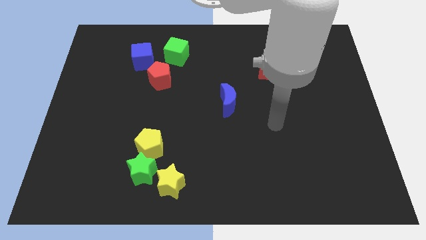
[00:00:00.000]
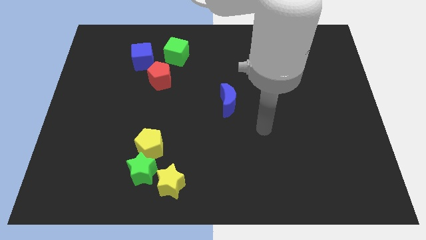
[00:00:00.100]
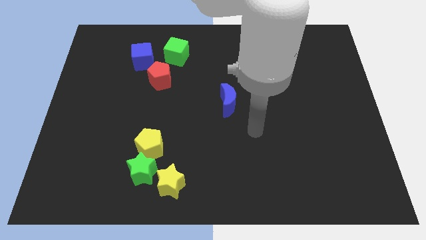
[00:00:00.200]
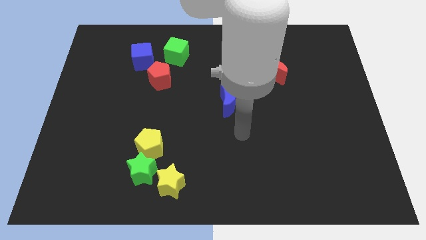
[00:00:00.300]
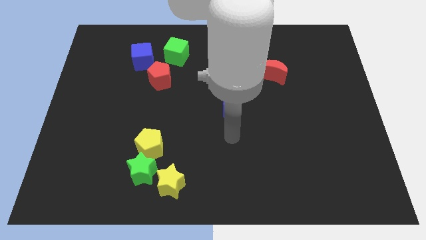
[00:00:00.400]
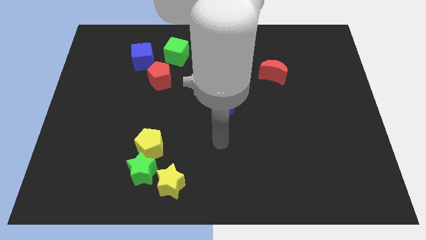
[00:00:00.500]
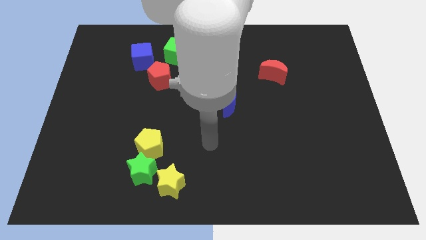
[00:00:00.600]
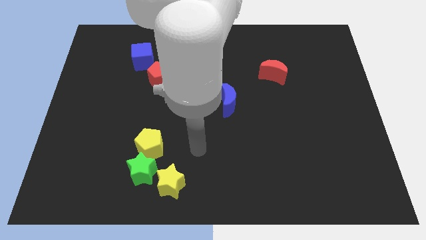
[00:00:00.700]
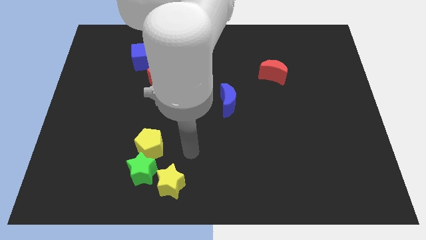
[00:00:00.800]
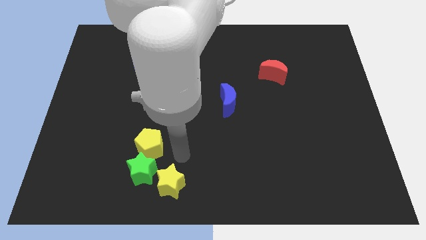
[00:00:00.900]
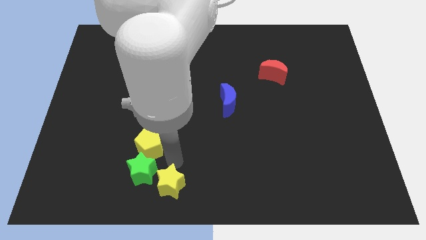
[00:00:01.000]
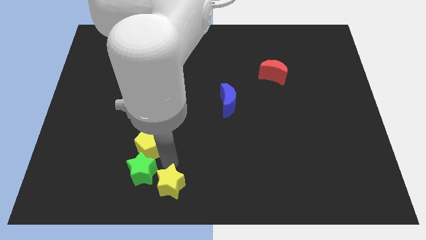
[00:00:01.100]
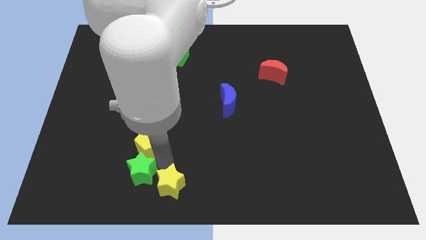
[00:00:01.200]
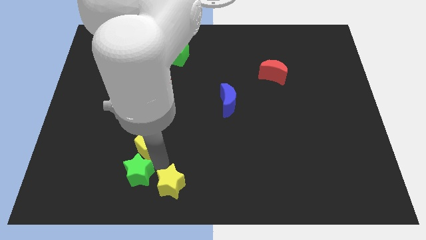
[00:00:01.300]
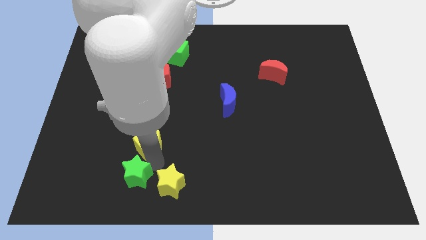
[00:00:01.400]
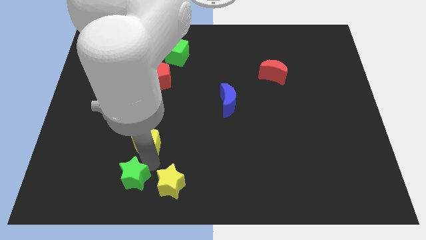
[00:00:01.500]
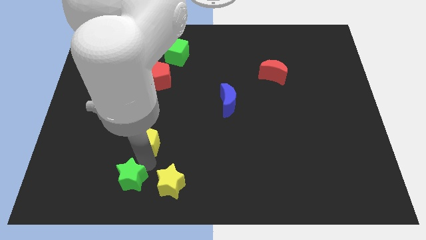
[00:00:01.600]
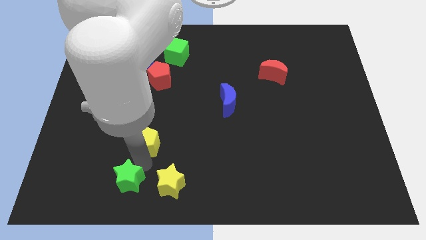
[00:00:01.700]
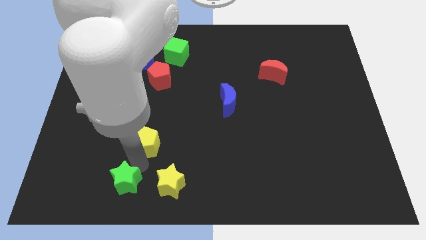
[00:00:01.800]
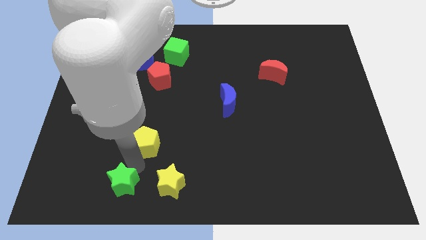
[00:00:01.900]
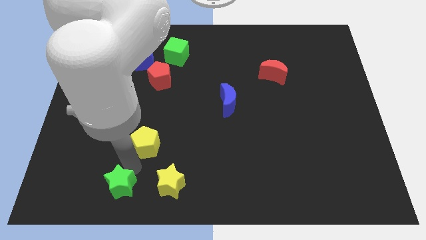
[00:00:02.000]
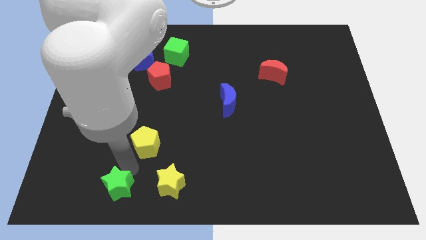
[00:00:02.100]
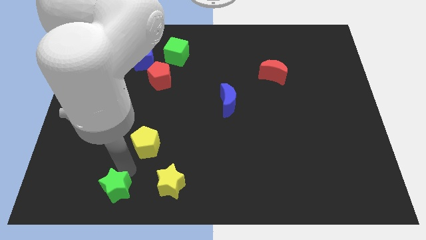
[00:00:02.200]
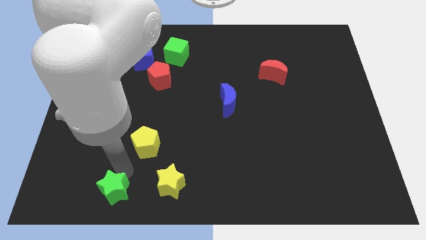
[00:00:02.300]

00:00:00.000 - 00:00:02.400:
separate the green star from the yellow pentagon and yellow star

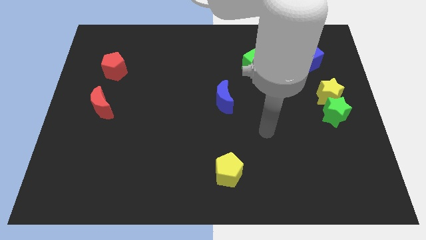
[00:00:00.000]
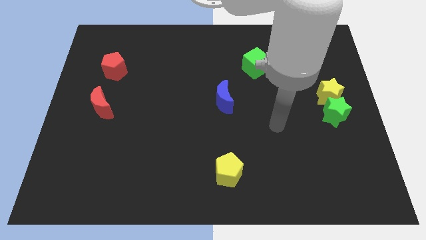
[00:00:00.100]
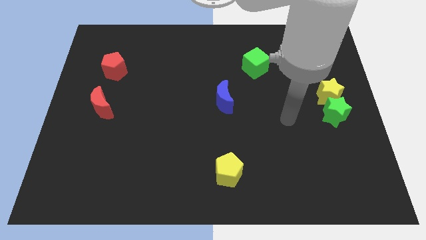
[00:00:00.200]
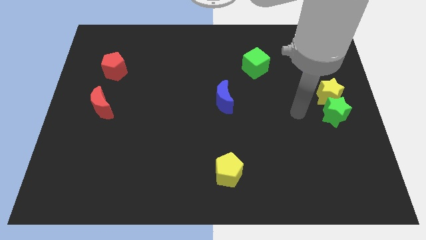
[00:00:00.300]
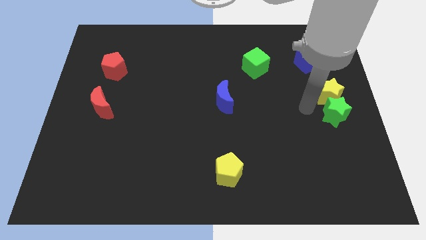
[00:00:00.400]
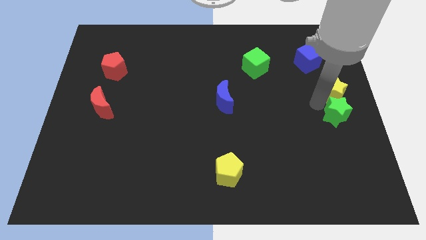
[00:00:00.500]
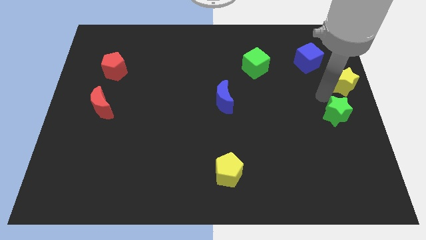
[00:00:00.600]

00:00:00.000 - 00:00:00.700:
move the green star away from the yellow star

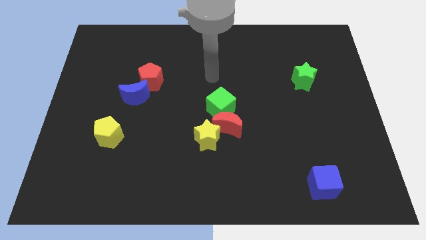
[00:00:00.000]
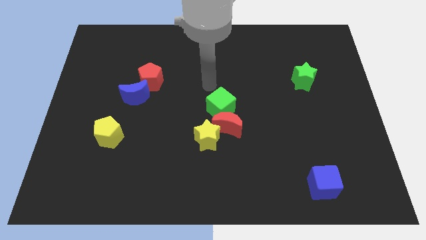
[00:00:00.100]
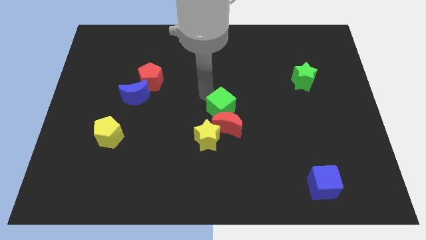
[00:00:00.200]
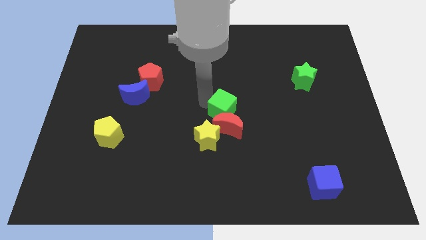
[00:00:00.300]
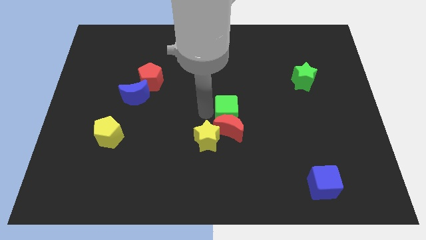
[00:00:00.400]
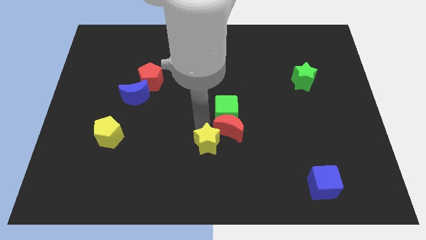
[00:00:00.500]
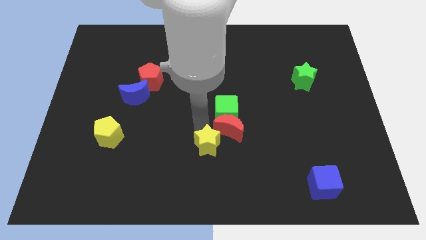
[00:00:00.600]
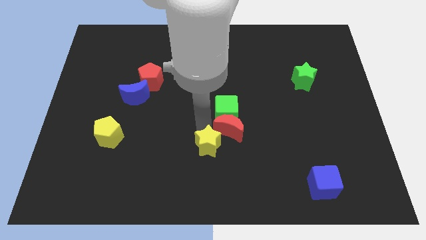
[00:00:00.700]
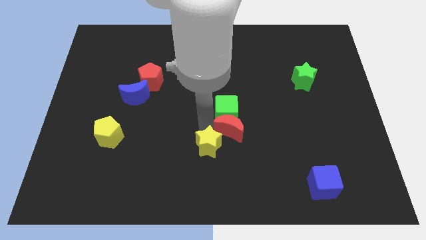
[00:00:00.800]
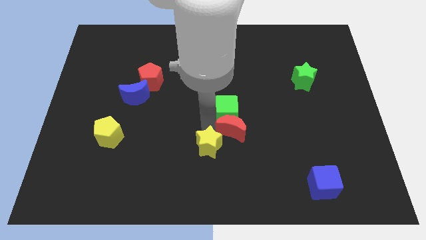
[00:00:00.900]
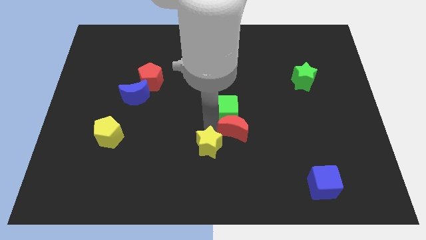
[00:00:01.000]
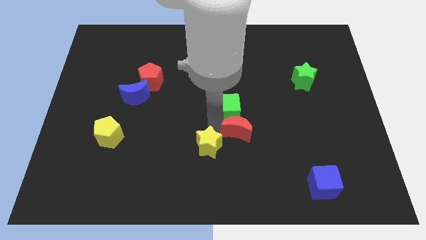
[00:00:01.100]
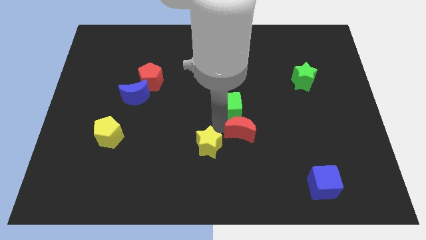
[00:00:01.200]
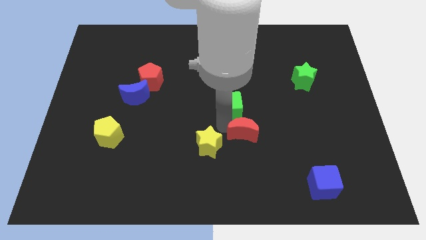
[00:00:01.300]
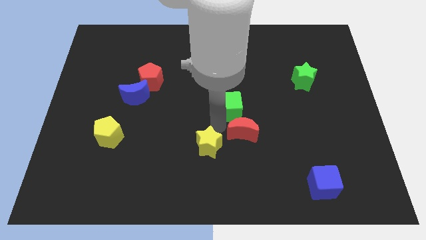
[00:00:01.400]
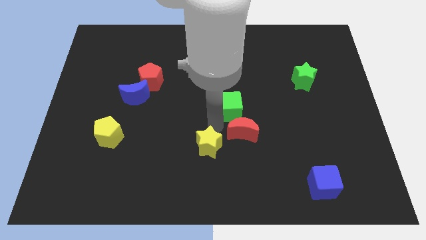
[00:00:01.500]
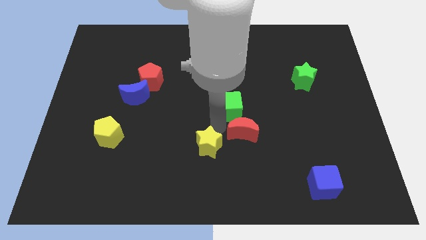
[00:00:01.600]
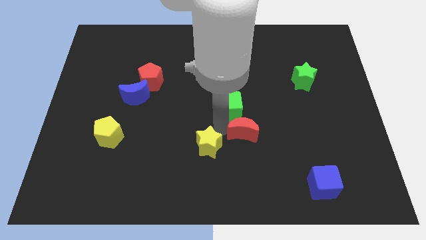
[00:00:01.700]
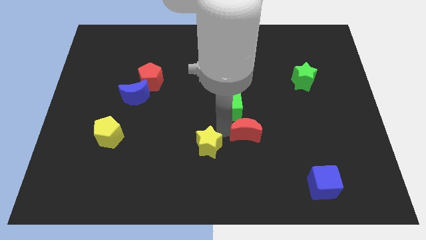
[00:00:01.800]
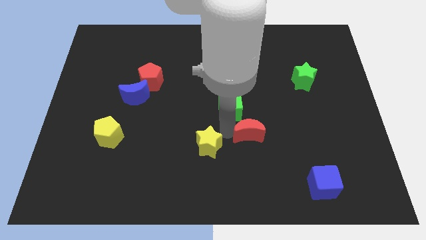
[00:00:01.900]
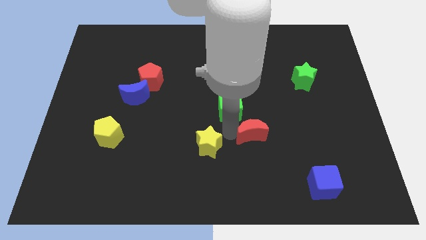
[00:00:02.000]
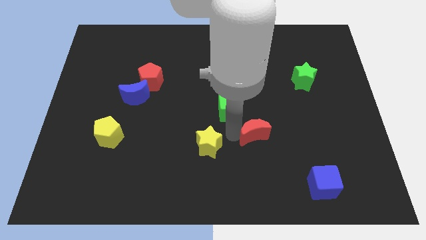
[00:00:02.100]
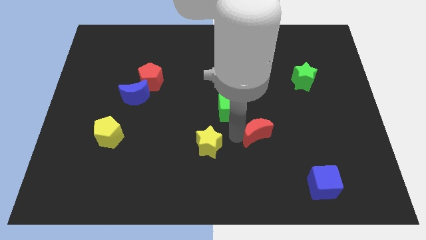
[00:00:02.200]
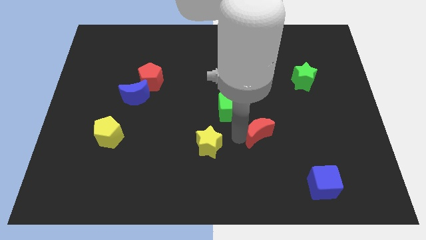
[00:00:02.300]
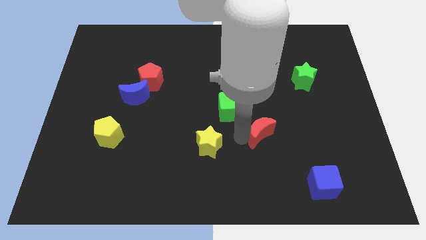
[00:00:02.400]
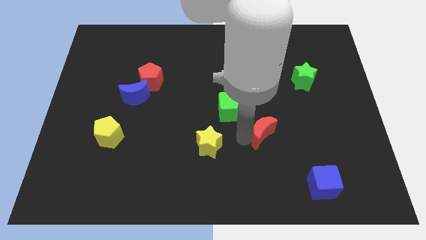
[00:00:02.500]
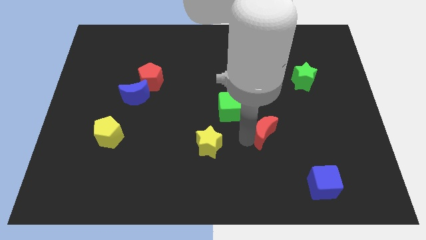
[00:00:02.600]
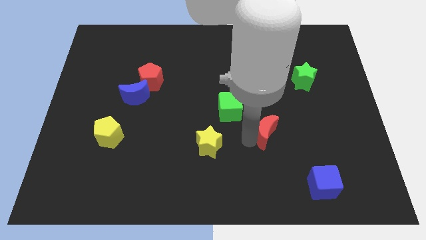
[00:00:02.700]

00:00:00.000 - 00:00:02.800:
separate the red moon from the green cube and yellow star

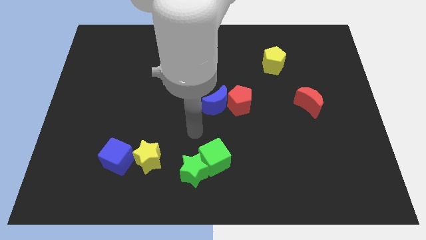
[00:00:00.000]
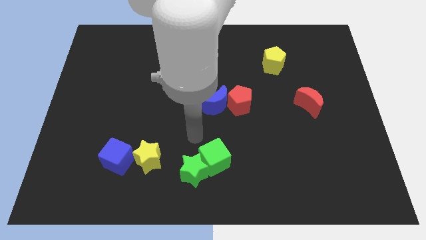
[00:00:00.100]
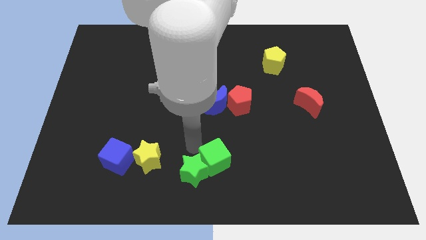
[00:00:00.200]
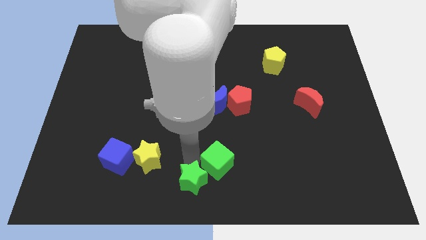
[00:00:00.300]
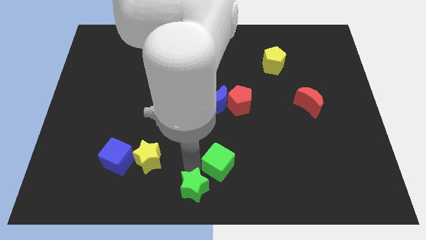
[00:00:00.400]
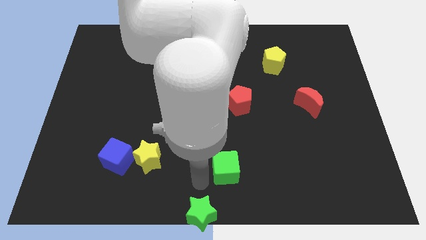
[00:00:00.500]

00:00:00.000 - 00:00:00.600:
move the green cube away from the green star

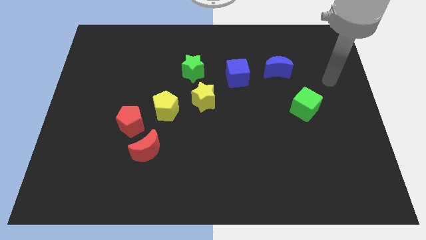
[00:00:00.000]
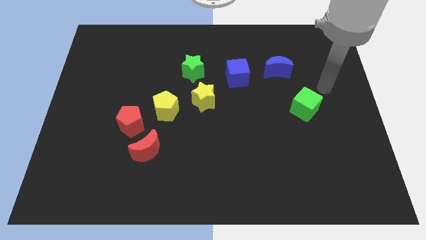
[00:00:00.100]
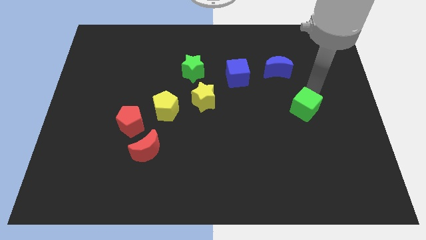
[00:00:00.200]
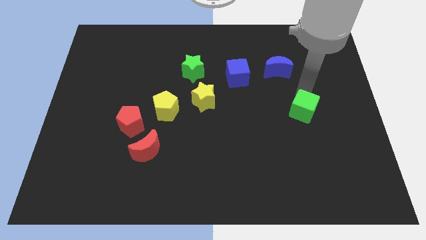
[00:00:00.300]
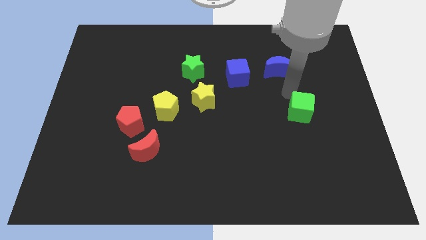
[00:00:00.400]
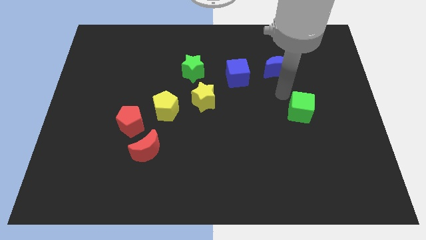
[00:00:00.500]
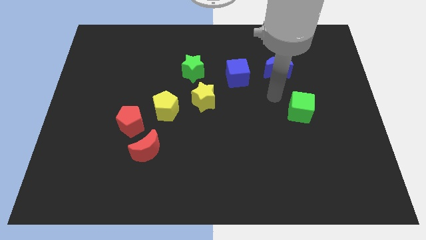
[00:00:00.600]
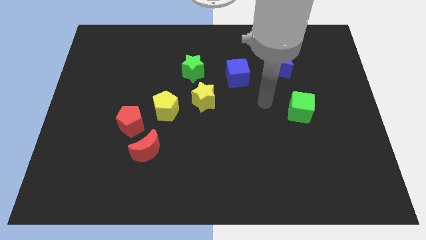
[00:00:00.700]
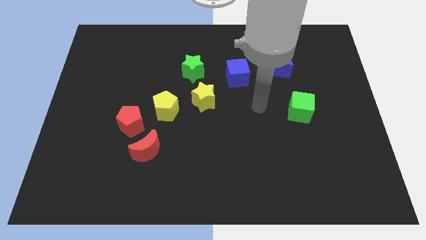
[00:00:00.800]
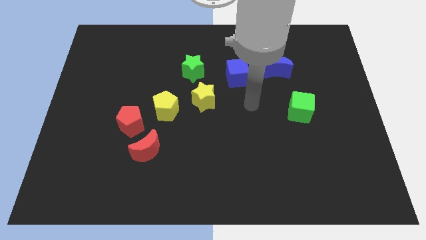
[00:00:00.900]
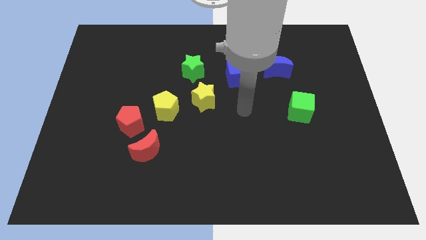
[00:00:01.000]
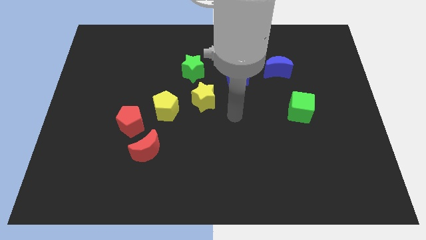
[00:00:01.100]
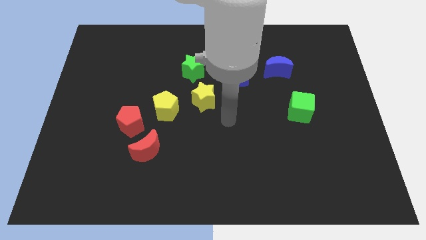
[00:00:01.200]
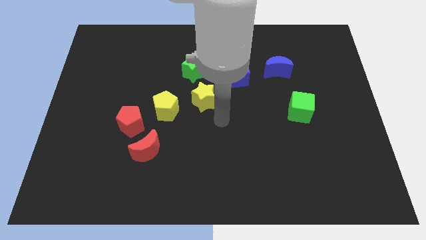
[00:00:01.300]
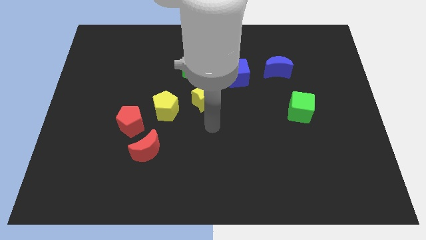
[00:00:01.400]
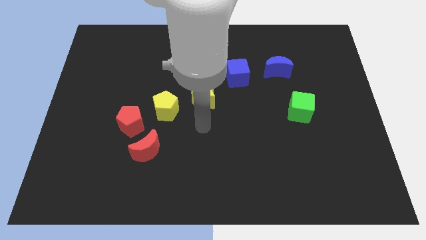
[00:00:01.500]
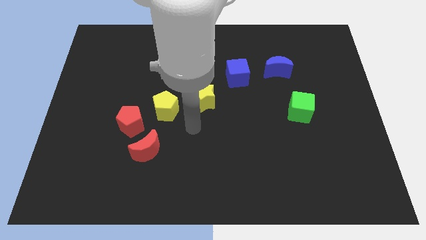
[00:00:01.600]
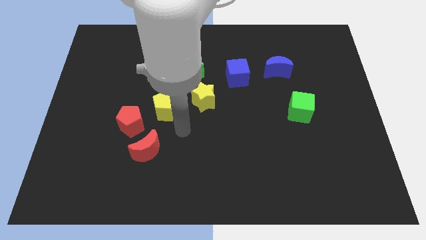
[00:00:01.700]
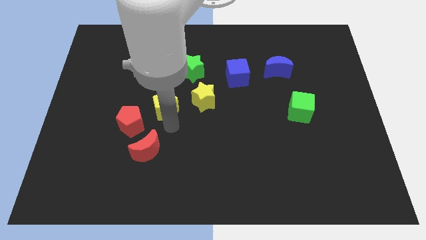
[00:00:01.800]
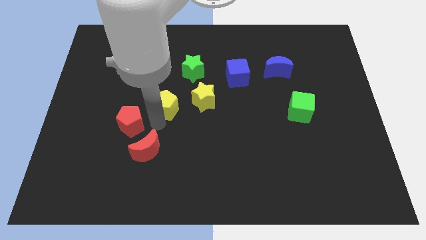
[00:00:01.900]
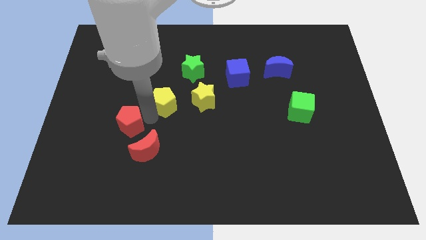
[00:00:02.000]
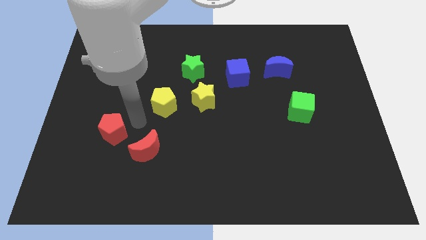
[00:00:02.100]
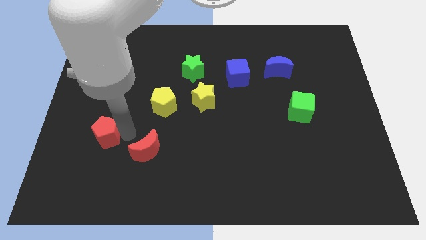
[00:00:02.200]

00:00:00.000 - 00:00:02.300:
pull the red moon apart from the red pentagon

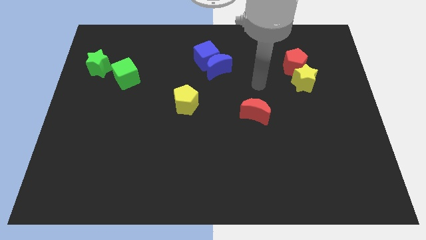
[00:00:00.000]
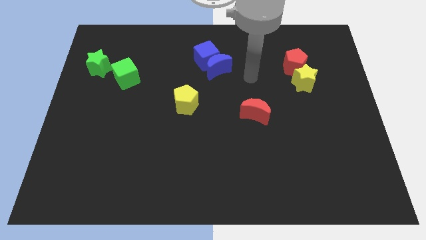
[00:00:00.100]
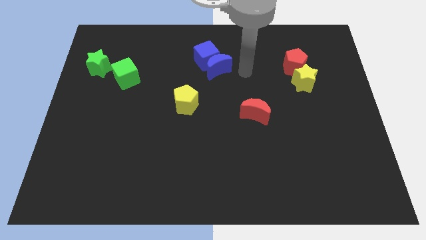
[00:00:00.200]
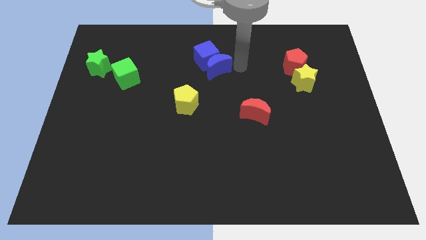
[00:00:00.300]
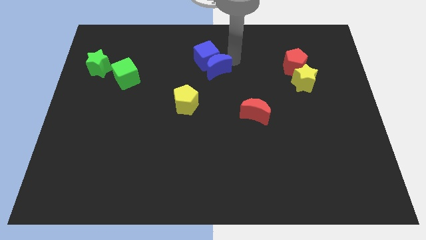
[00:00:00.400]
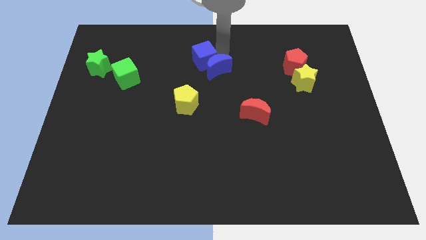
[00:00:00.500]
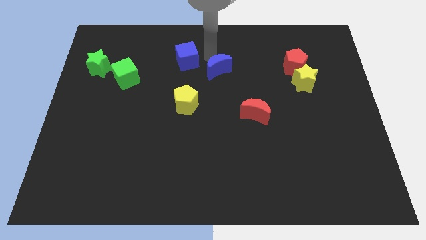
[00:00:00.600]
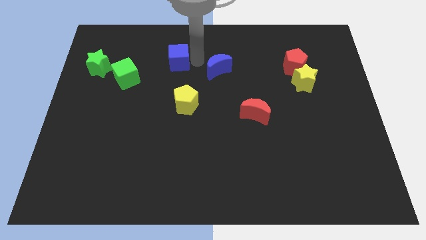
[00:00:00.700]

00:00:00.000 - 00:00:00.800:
move the blue moon away from the blue cube
